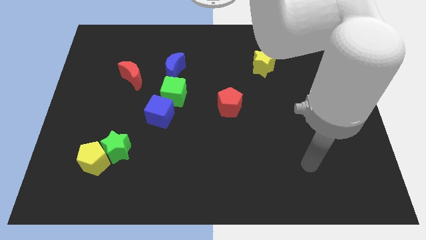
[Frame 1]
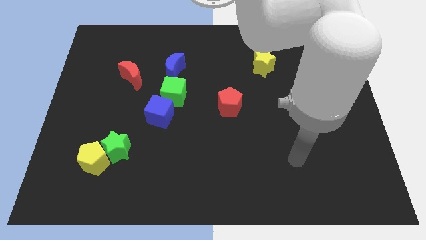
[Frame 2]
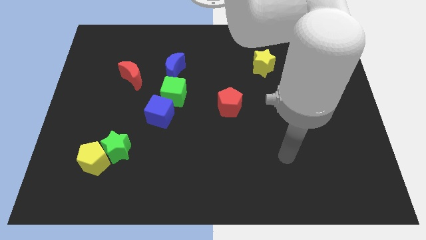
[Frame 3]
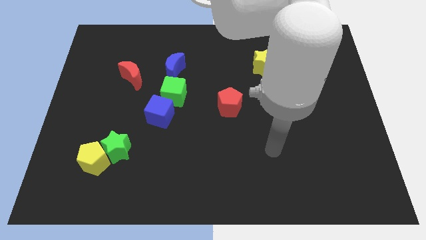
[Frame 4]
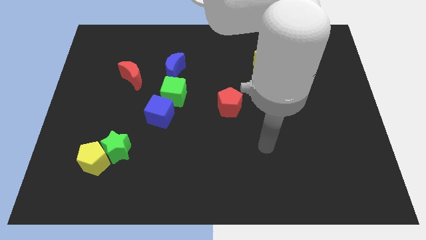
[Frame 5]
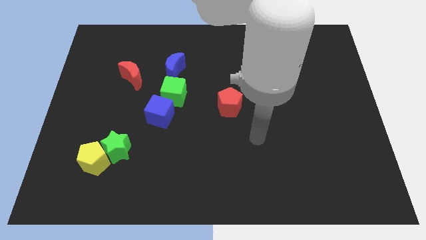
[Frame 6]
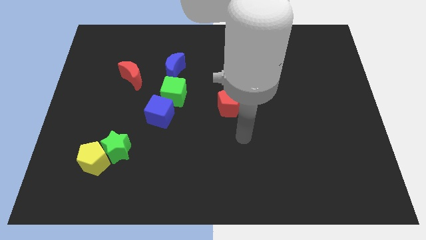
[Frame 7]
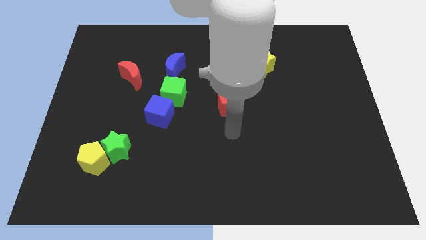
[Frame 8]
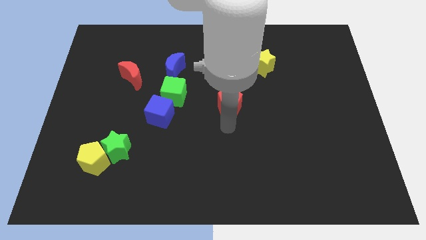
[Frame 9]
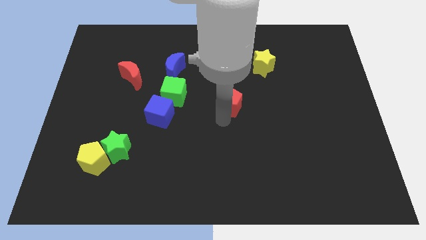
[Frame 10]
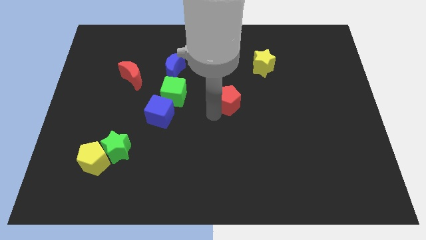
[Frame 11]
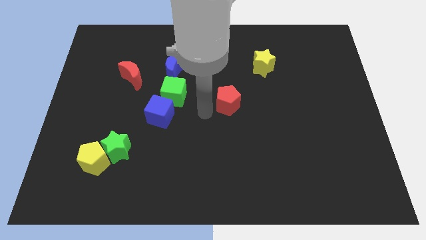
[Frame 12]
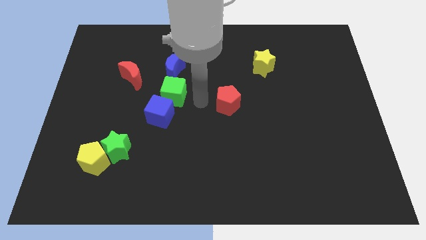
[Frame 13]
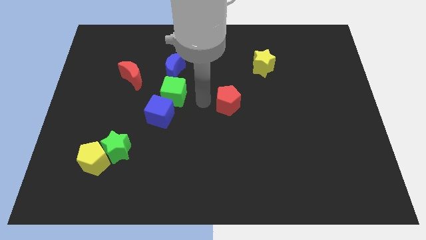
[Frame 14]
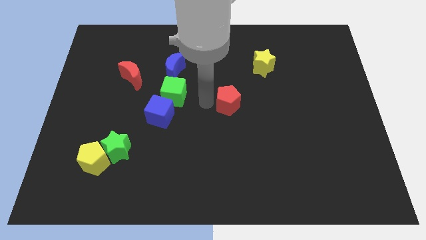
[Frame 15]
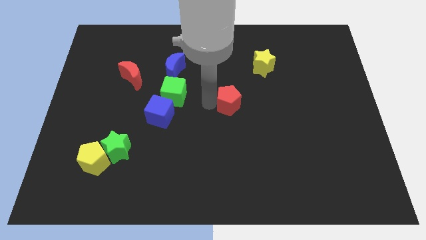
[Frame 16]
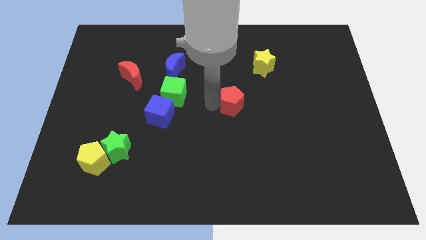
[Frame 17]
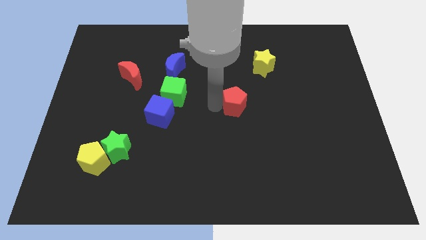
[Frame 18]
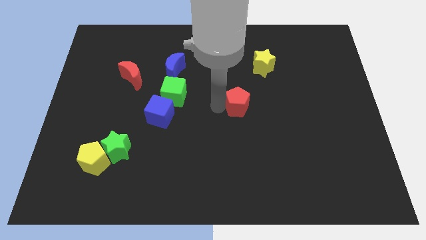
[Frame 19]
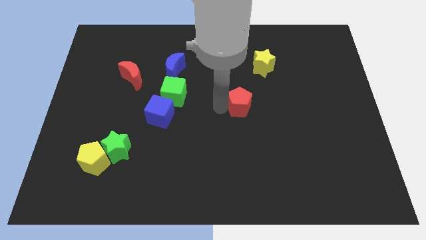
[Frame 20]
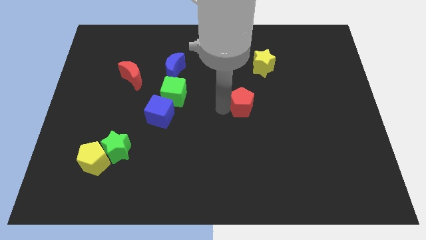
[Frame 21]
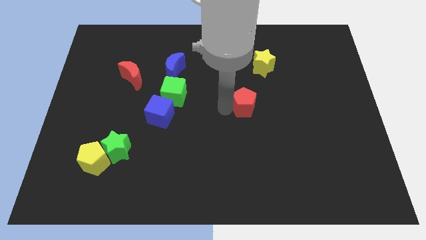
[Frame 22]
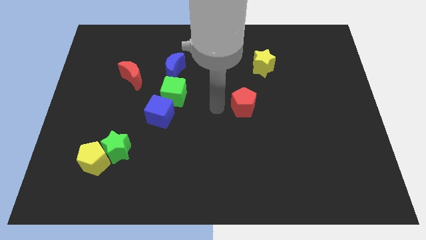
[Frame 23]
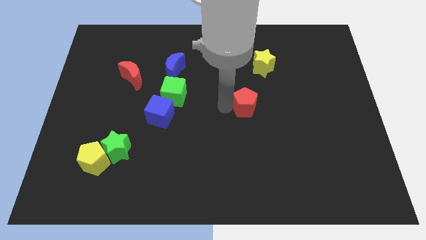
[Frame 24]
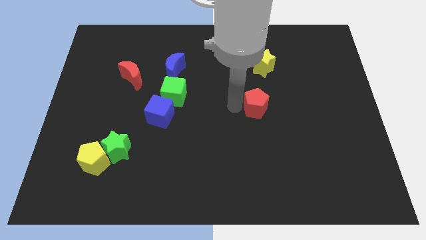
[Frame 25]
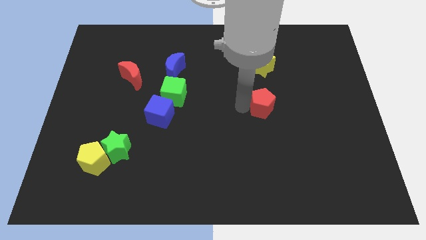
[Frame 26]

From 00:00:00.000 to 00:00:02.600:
slightly push the red pentagon to the right

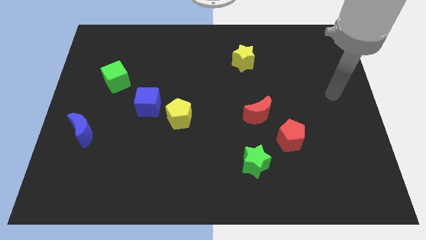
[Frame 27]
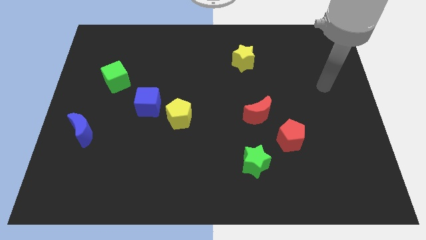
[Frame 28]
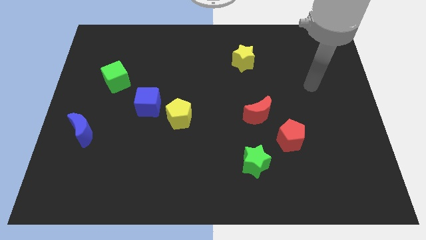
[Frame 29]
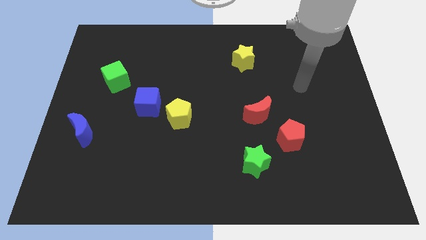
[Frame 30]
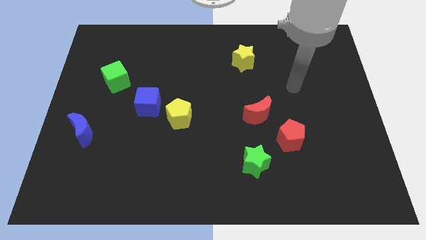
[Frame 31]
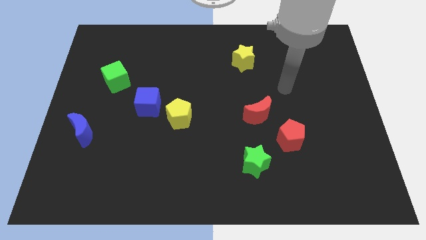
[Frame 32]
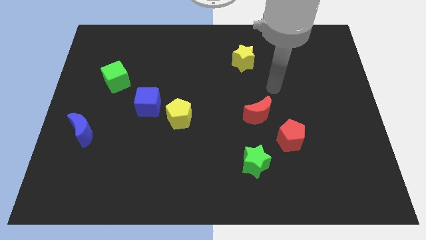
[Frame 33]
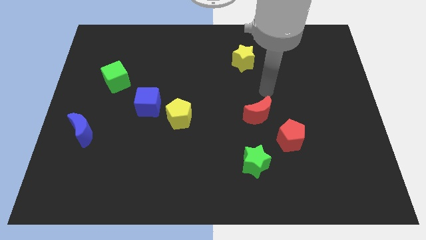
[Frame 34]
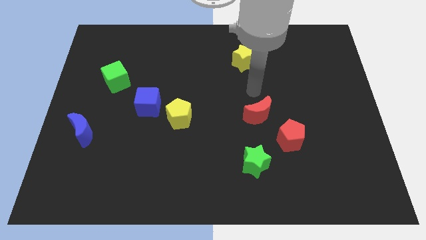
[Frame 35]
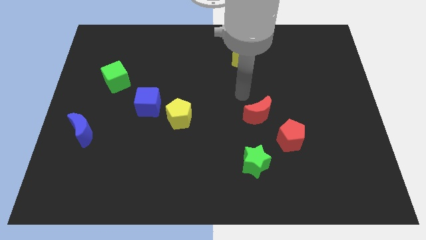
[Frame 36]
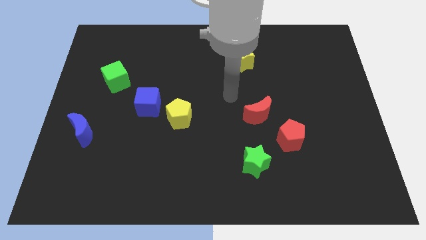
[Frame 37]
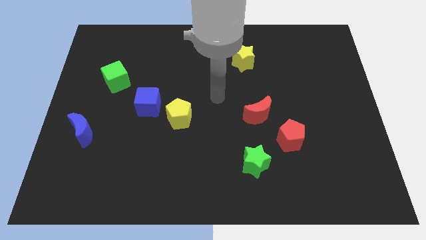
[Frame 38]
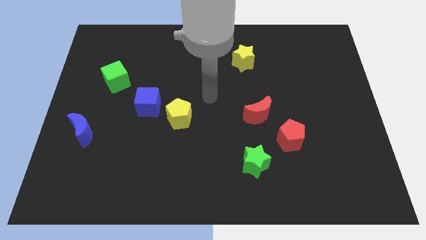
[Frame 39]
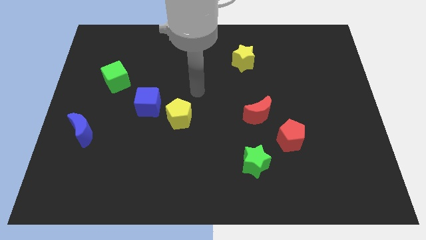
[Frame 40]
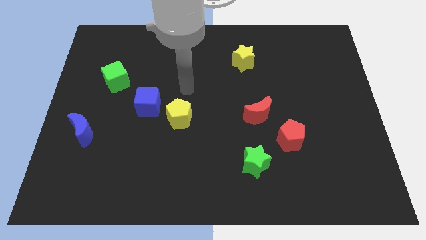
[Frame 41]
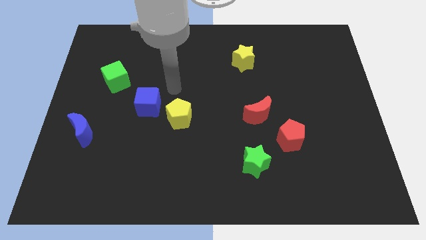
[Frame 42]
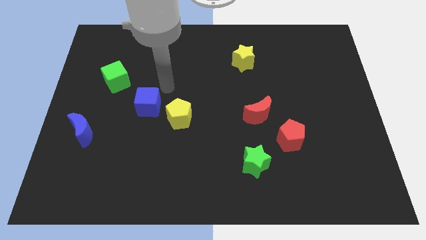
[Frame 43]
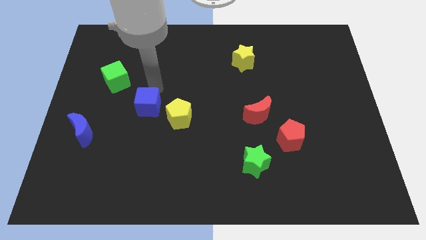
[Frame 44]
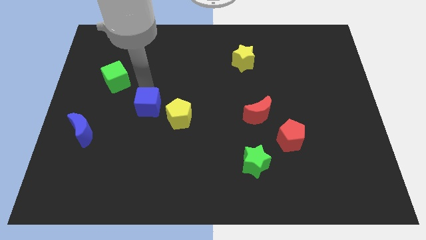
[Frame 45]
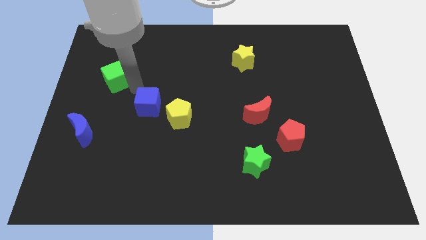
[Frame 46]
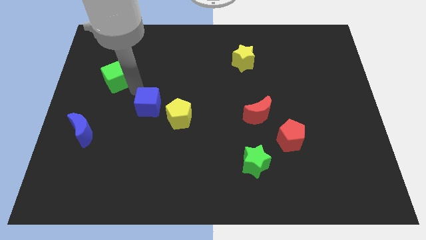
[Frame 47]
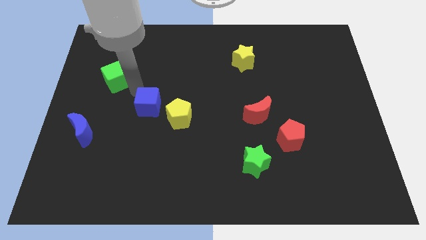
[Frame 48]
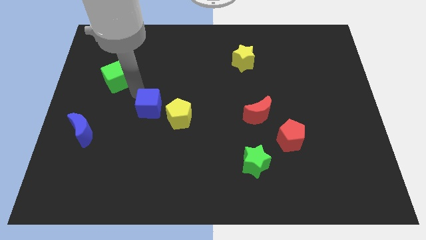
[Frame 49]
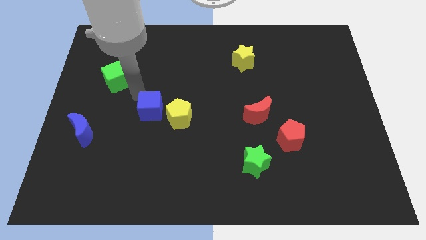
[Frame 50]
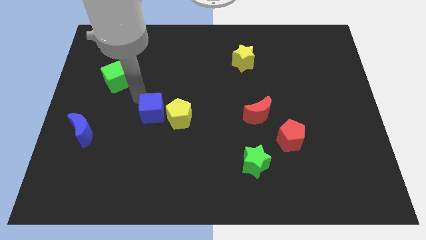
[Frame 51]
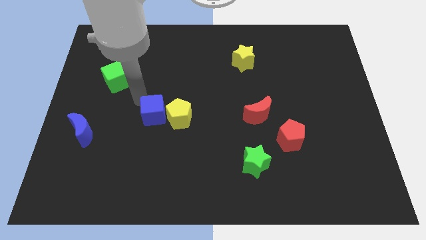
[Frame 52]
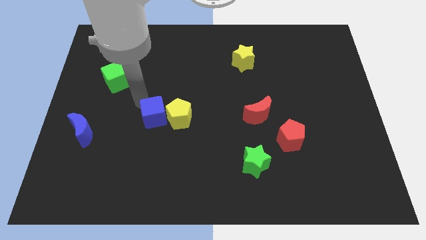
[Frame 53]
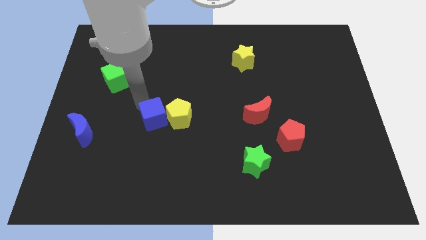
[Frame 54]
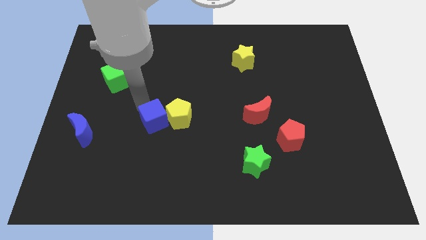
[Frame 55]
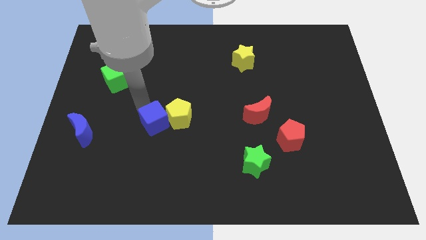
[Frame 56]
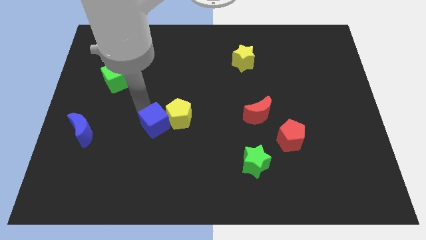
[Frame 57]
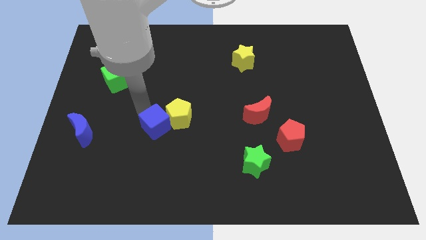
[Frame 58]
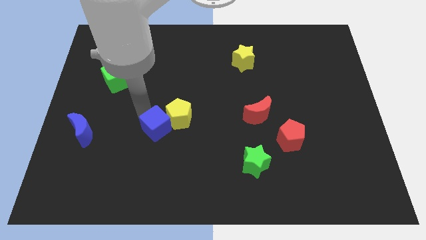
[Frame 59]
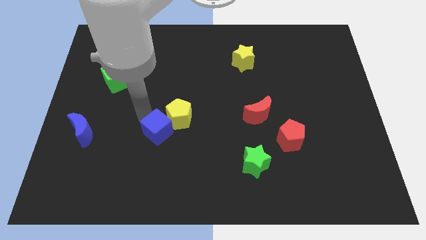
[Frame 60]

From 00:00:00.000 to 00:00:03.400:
move the blue cube down and right a little bit

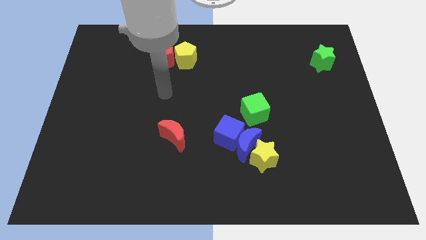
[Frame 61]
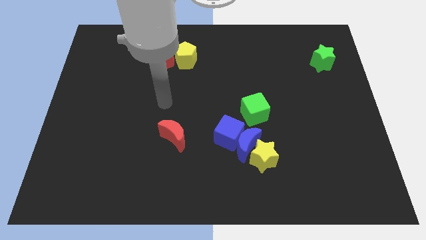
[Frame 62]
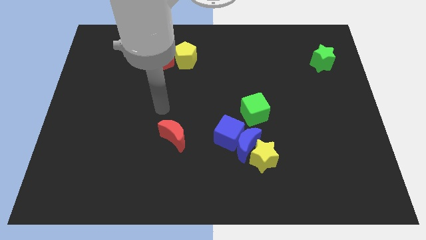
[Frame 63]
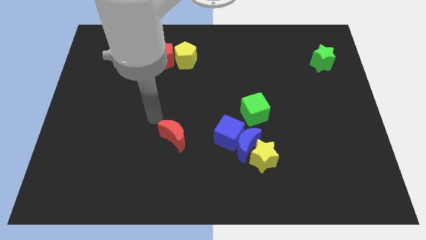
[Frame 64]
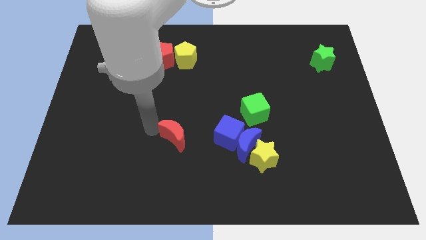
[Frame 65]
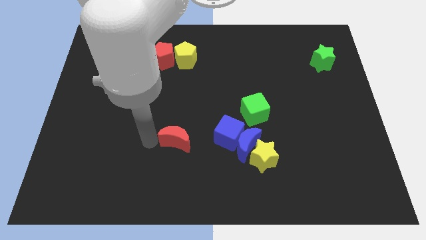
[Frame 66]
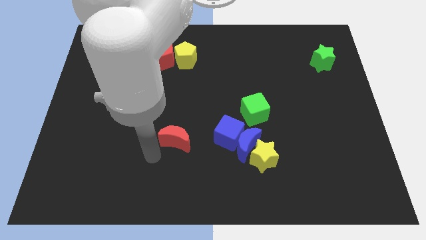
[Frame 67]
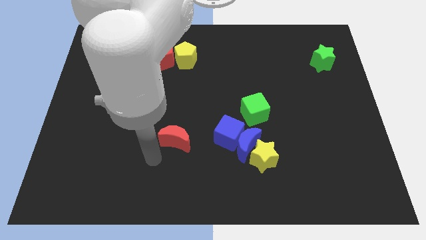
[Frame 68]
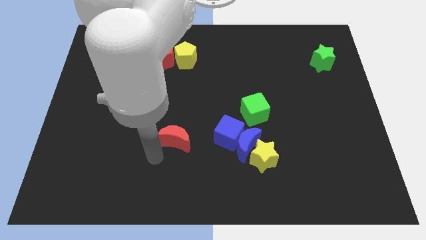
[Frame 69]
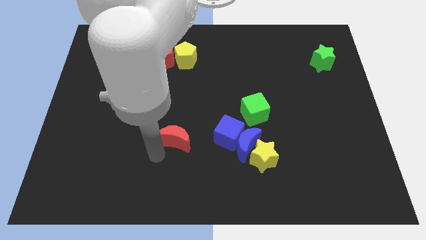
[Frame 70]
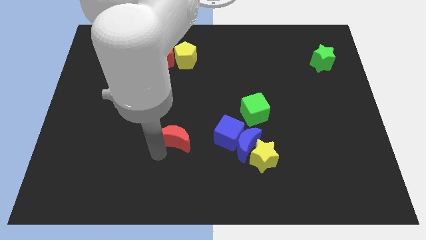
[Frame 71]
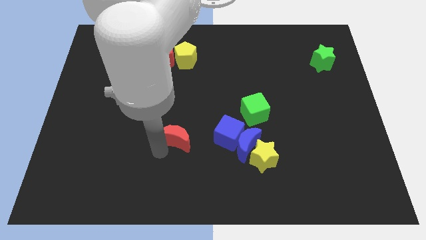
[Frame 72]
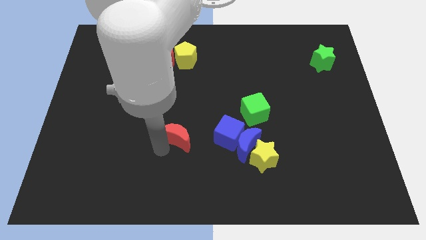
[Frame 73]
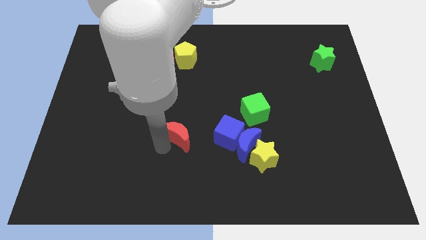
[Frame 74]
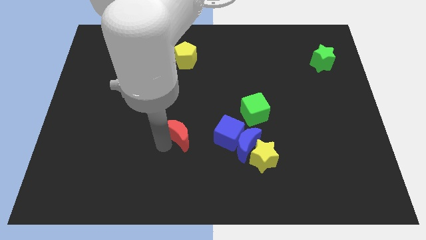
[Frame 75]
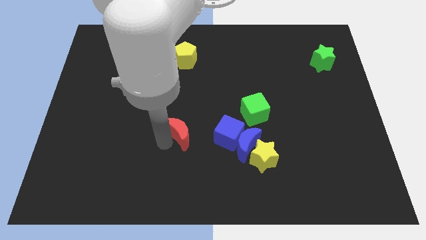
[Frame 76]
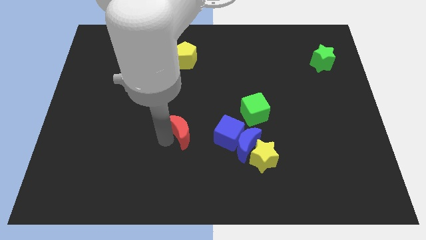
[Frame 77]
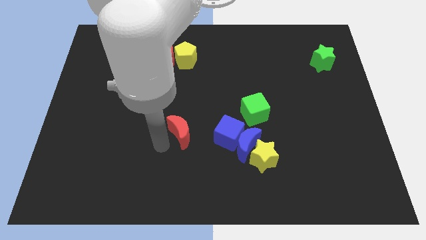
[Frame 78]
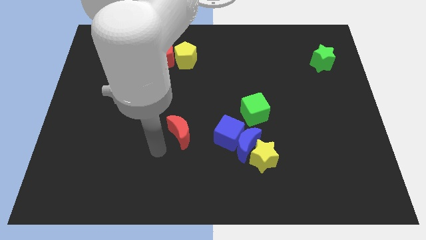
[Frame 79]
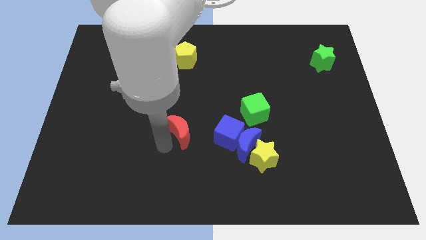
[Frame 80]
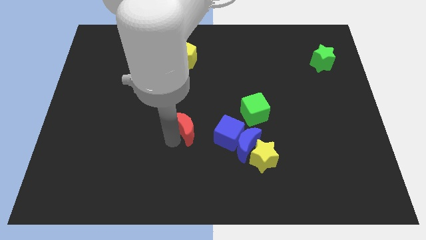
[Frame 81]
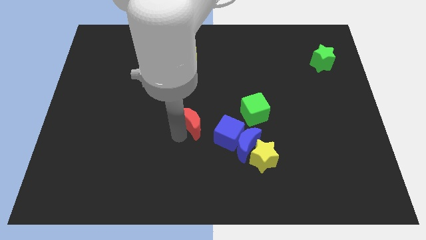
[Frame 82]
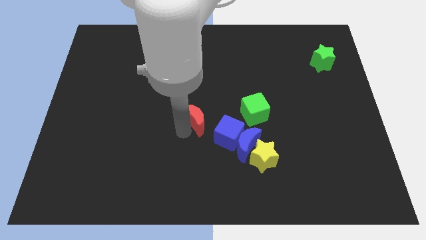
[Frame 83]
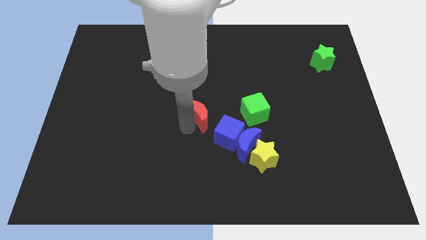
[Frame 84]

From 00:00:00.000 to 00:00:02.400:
slightly push the red moon upwards and then to the right
